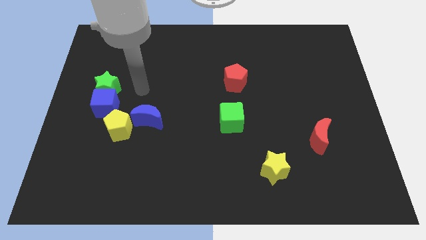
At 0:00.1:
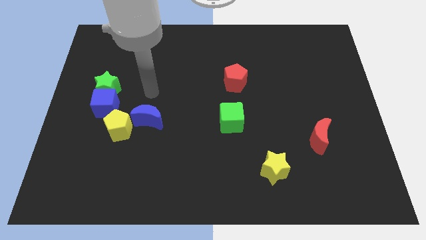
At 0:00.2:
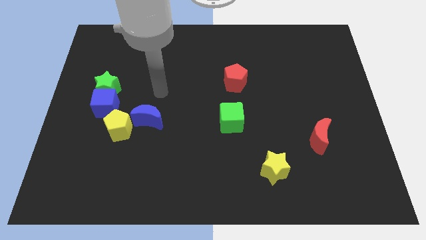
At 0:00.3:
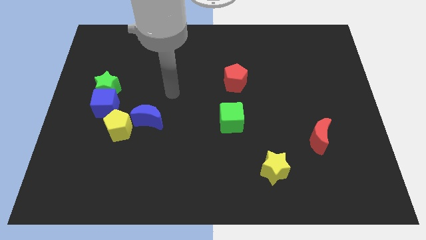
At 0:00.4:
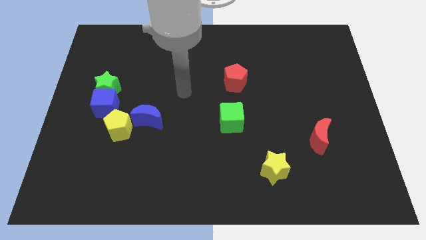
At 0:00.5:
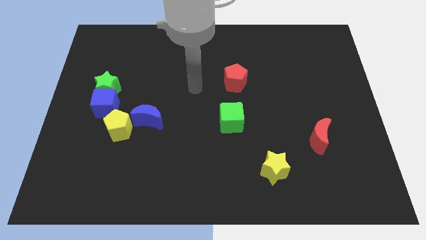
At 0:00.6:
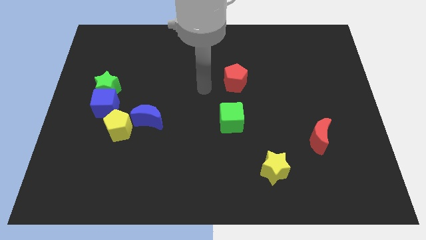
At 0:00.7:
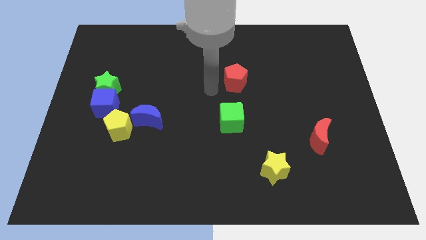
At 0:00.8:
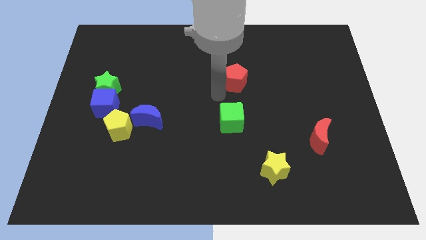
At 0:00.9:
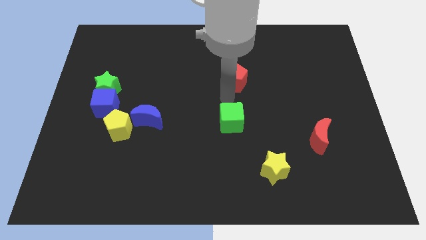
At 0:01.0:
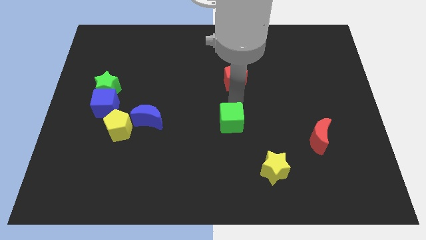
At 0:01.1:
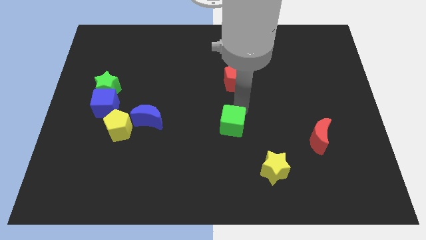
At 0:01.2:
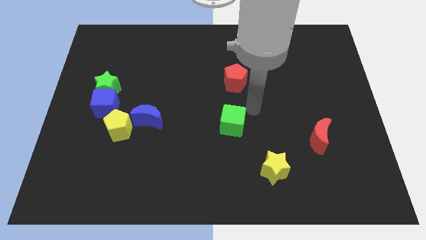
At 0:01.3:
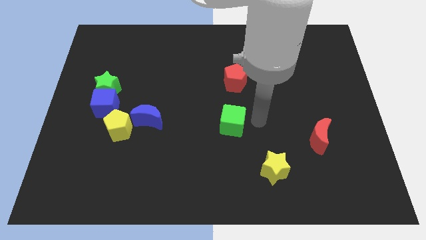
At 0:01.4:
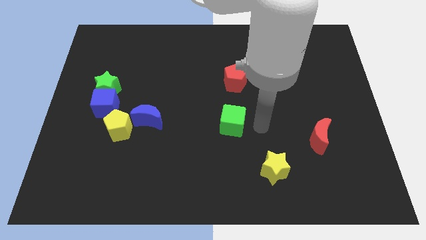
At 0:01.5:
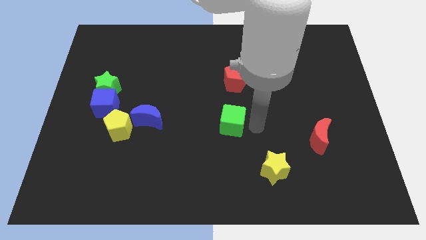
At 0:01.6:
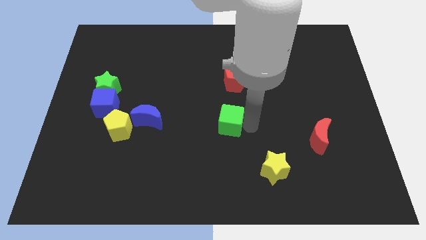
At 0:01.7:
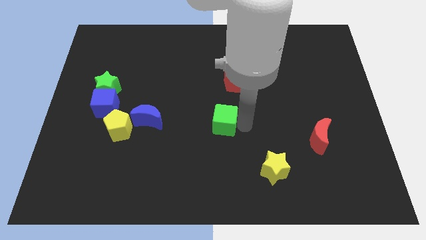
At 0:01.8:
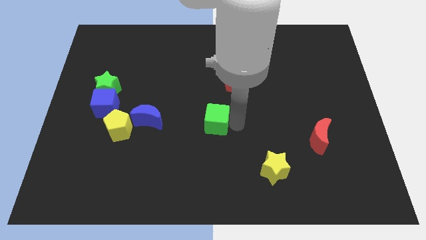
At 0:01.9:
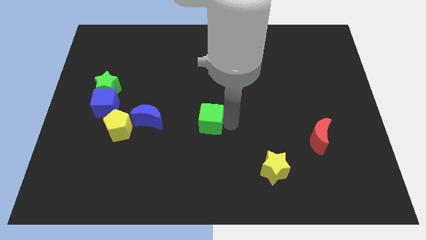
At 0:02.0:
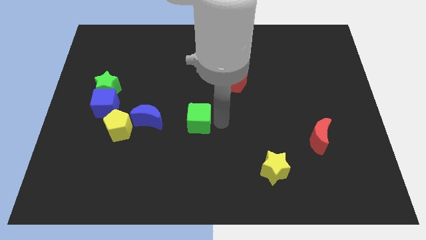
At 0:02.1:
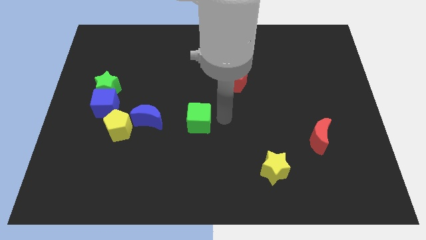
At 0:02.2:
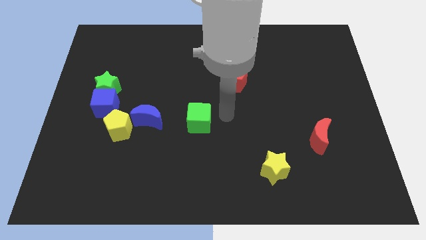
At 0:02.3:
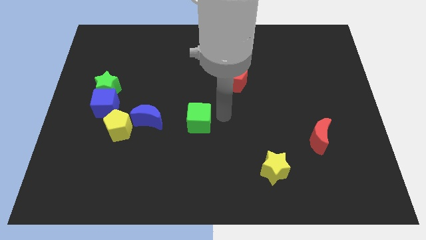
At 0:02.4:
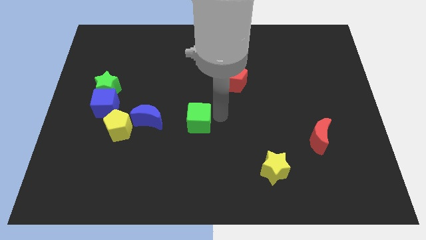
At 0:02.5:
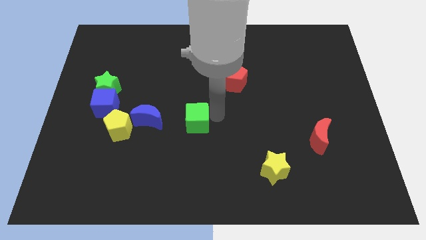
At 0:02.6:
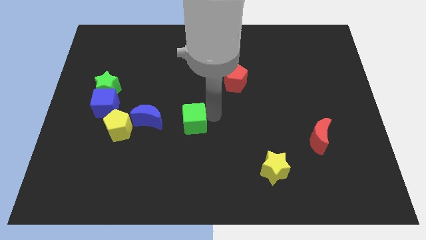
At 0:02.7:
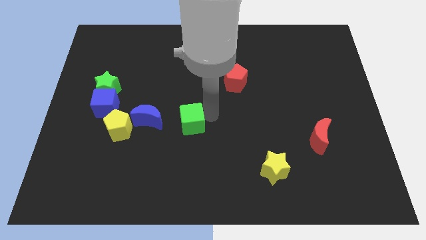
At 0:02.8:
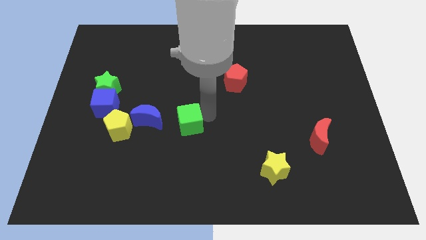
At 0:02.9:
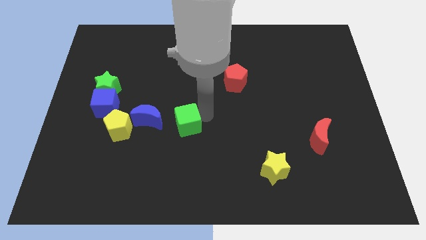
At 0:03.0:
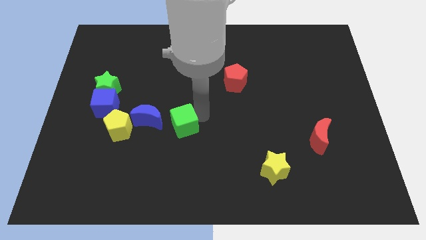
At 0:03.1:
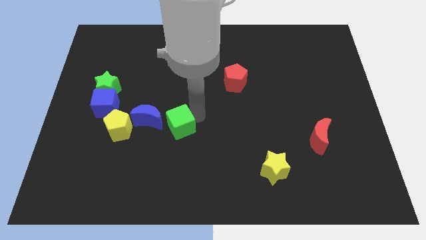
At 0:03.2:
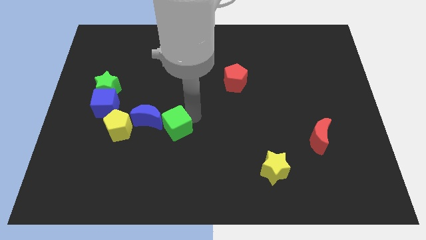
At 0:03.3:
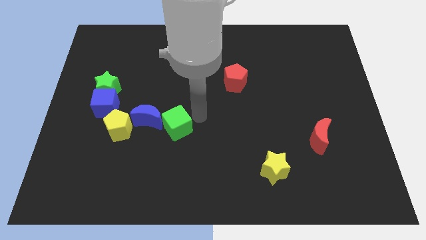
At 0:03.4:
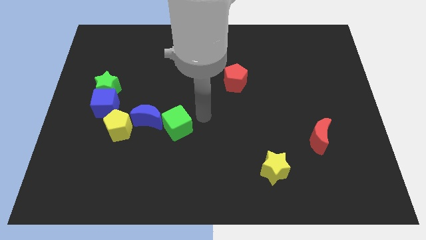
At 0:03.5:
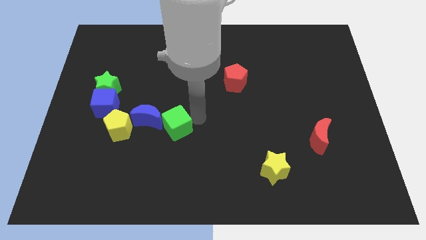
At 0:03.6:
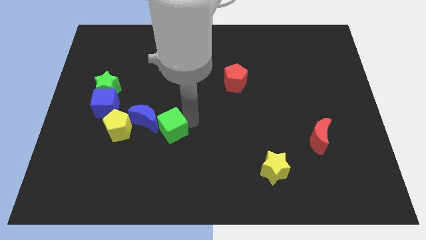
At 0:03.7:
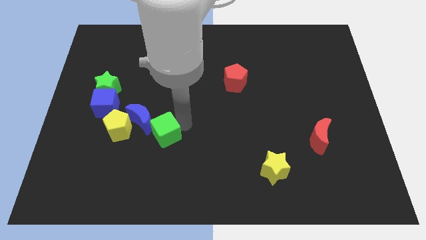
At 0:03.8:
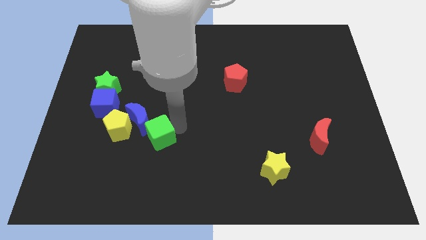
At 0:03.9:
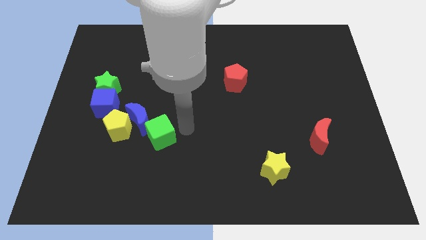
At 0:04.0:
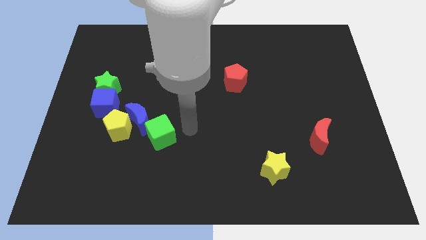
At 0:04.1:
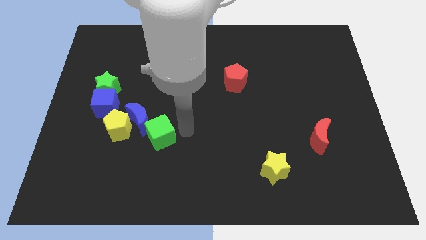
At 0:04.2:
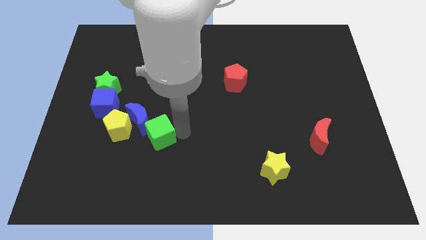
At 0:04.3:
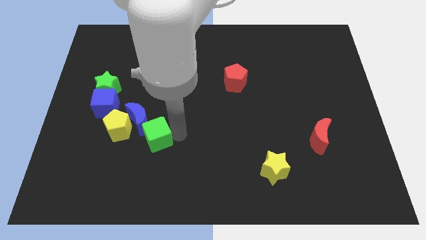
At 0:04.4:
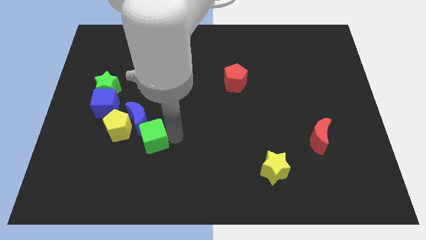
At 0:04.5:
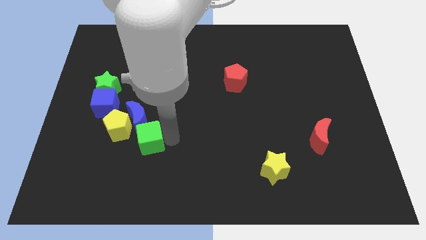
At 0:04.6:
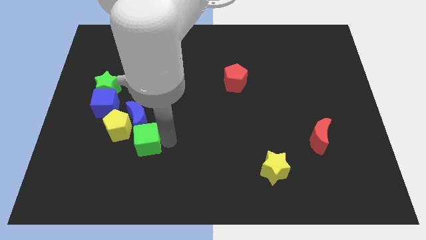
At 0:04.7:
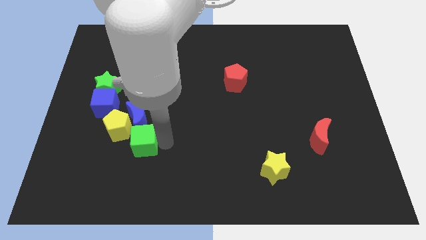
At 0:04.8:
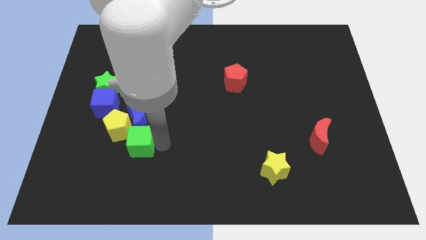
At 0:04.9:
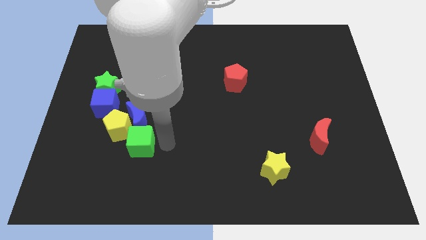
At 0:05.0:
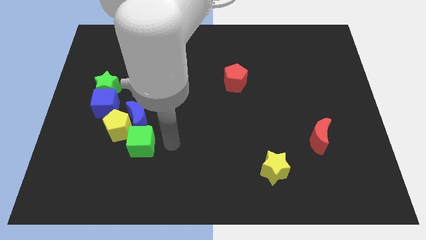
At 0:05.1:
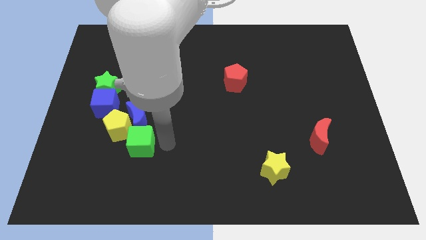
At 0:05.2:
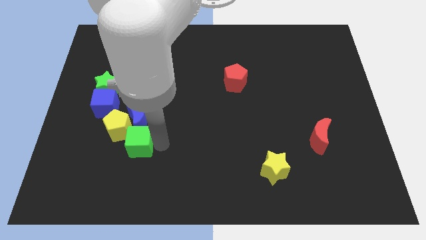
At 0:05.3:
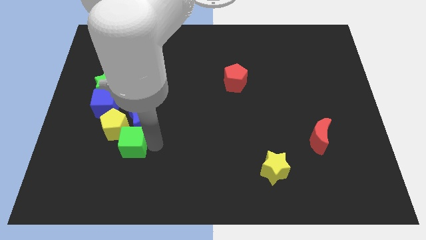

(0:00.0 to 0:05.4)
move the green cube to the left

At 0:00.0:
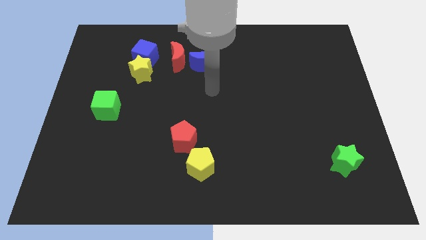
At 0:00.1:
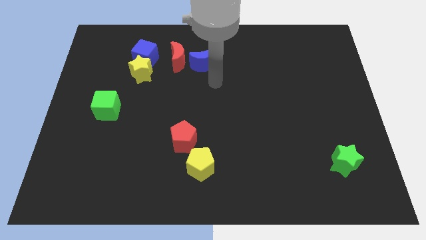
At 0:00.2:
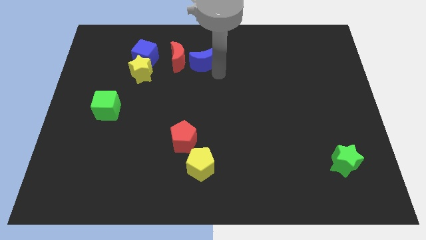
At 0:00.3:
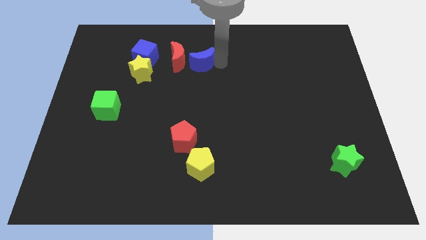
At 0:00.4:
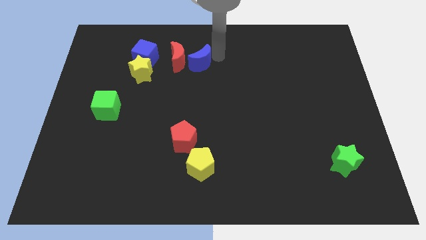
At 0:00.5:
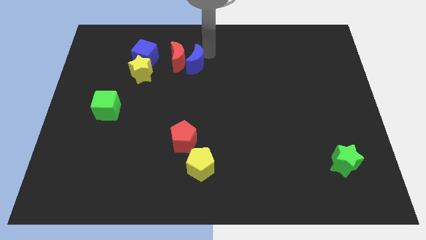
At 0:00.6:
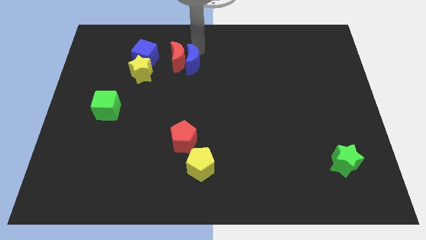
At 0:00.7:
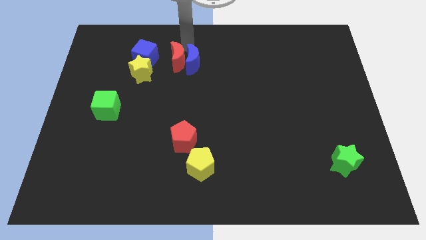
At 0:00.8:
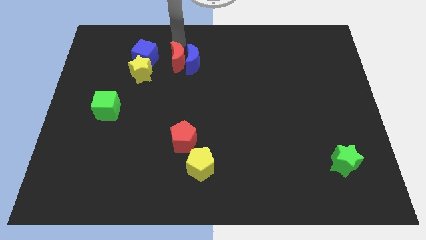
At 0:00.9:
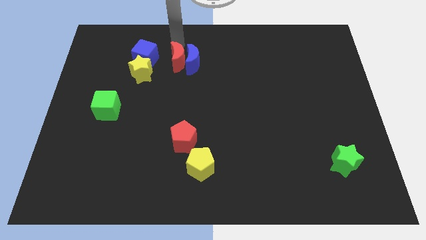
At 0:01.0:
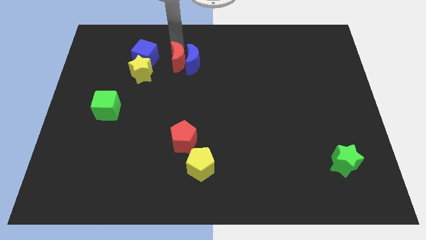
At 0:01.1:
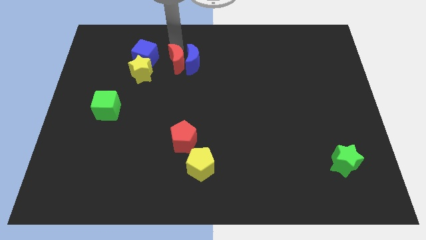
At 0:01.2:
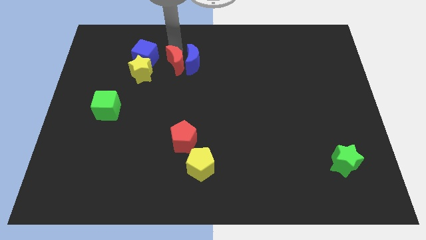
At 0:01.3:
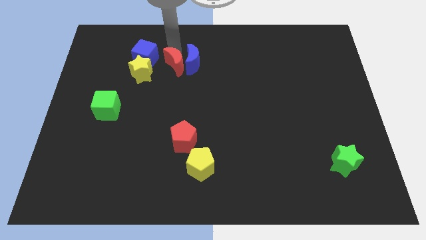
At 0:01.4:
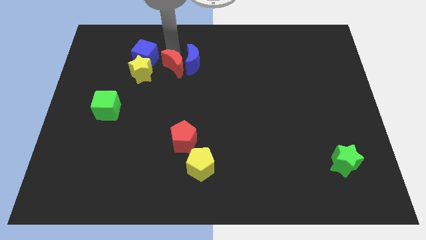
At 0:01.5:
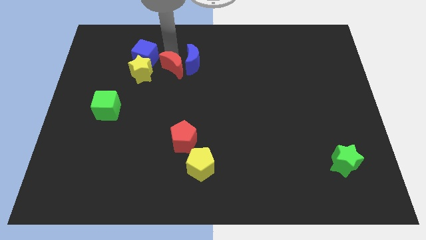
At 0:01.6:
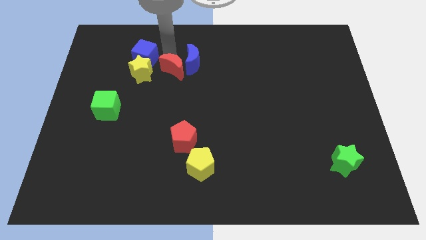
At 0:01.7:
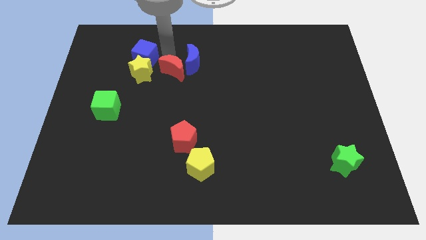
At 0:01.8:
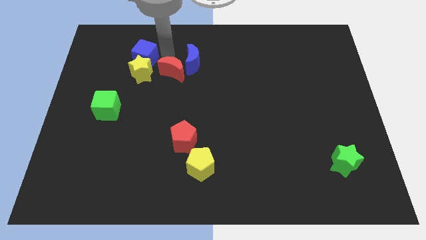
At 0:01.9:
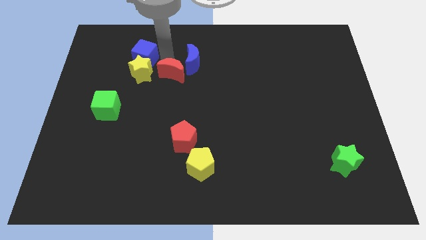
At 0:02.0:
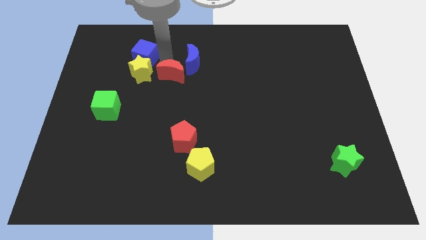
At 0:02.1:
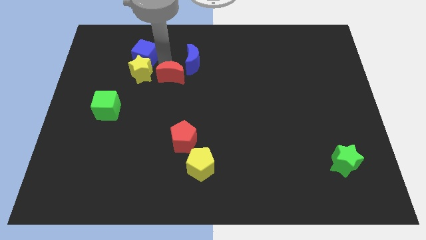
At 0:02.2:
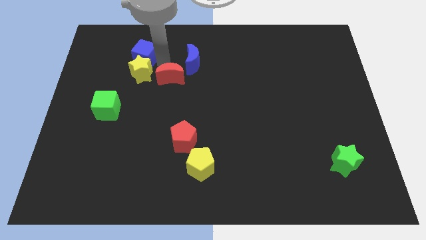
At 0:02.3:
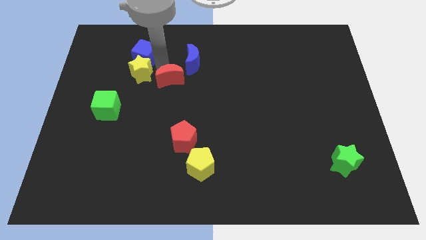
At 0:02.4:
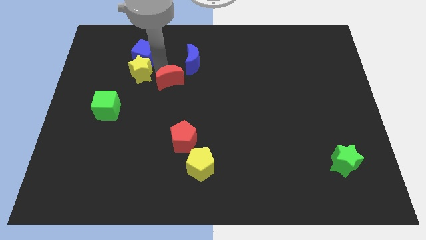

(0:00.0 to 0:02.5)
move the red moon downwards a little

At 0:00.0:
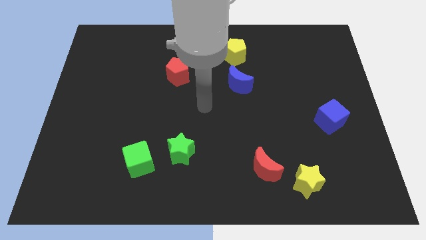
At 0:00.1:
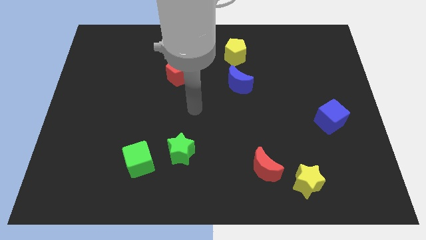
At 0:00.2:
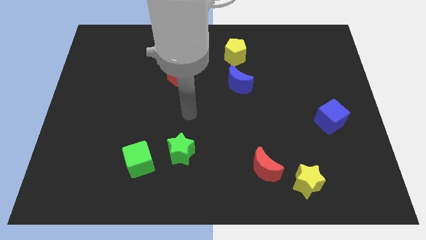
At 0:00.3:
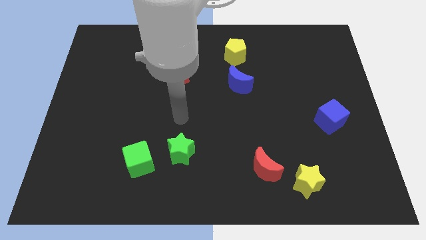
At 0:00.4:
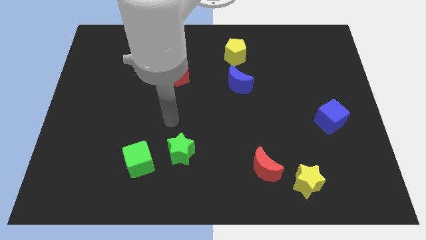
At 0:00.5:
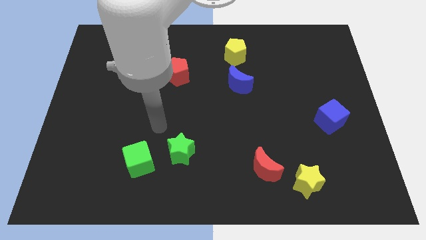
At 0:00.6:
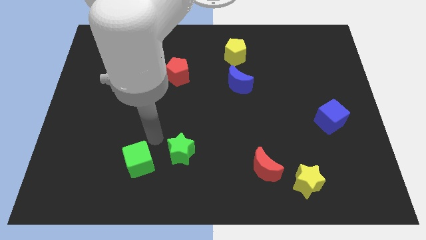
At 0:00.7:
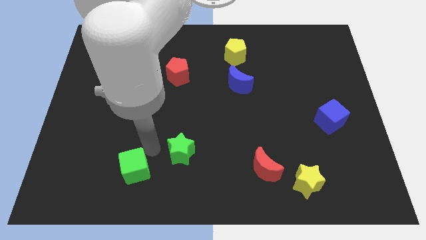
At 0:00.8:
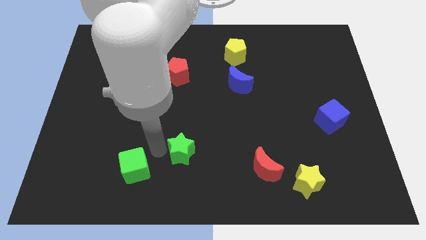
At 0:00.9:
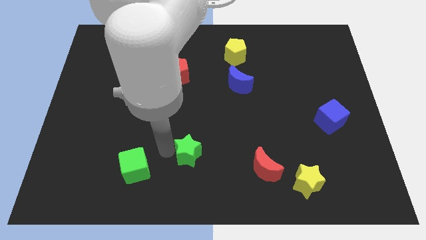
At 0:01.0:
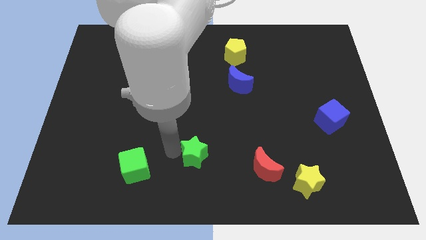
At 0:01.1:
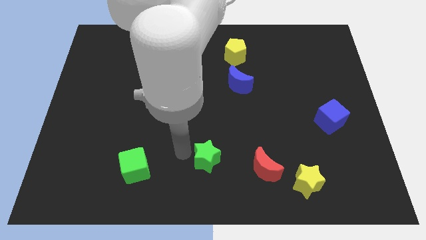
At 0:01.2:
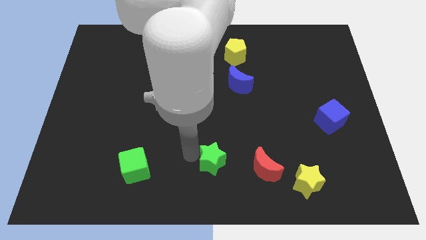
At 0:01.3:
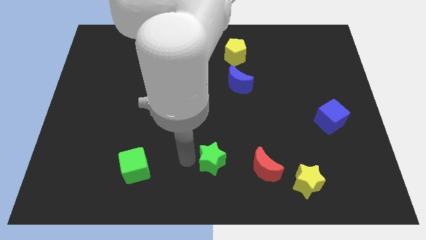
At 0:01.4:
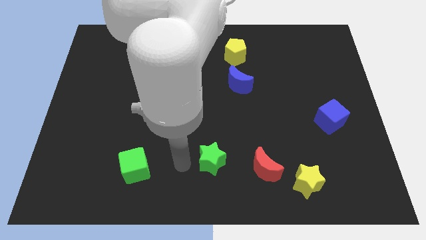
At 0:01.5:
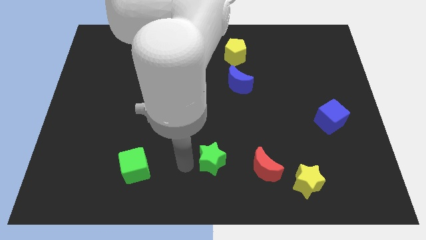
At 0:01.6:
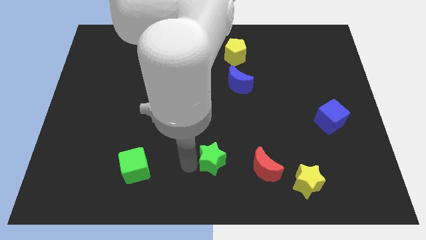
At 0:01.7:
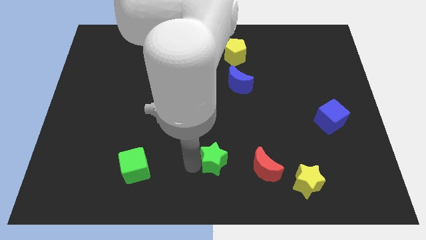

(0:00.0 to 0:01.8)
push the green star somewhat to the right
